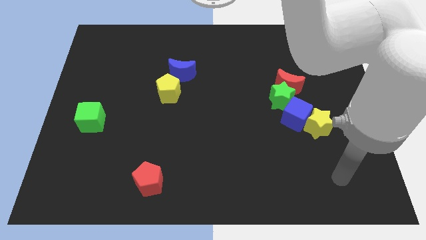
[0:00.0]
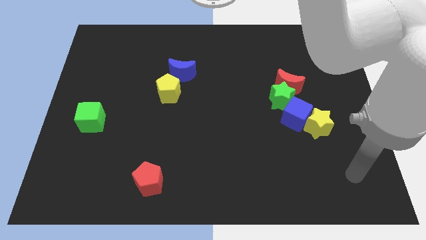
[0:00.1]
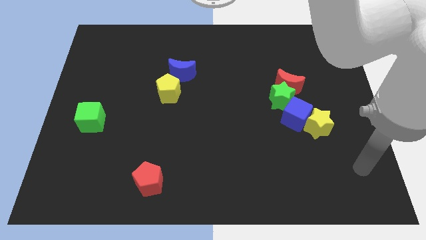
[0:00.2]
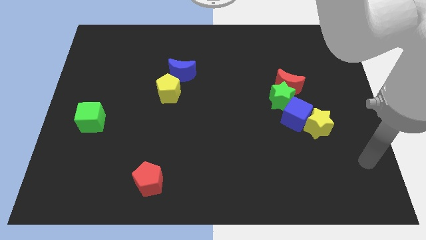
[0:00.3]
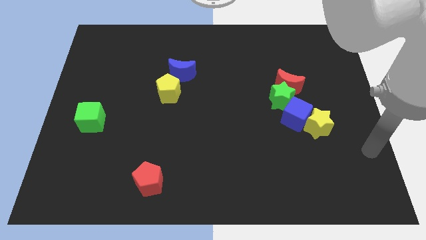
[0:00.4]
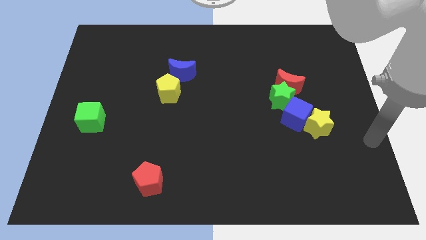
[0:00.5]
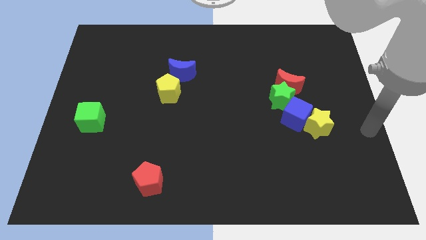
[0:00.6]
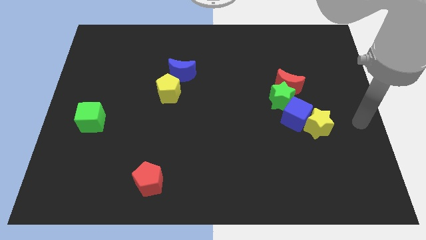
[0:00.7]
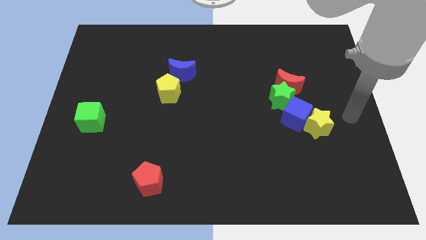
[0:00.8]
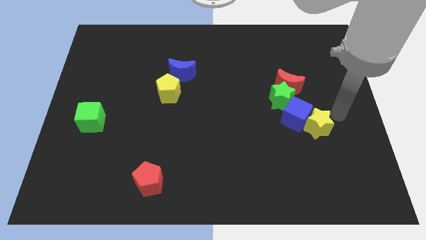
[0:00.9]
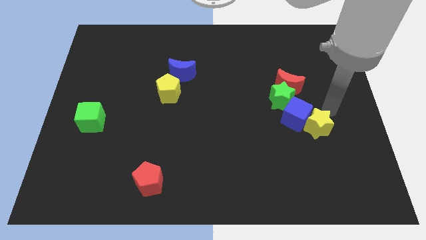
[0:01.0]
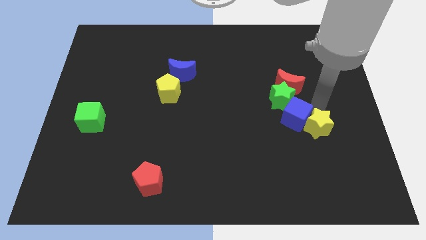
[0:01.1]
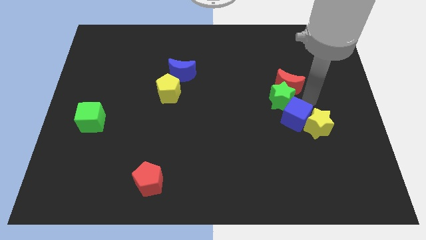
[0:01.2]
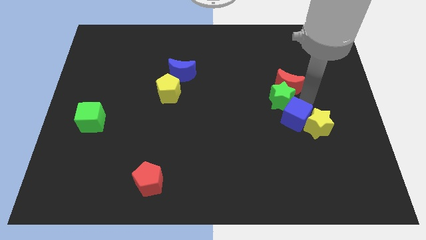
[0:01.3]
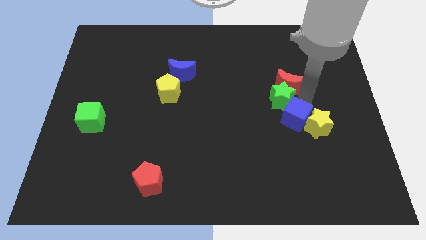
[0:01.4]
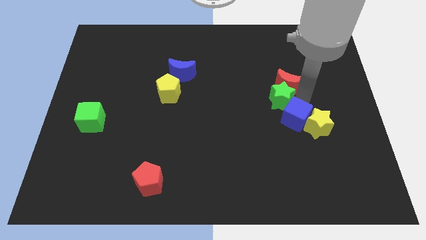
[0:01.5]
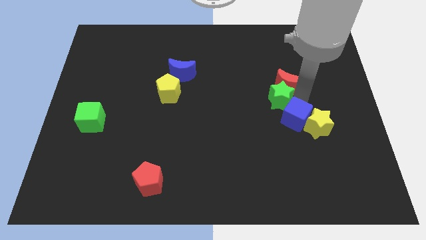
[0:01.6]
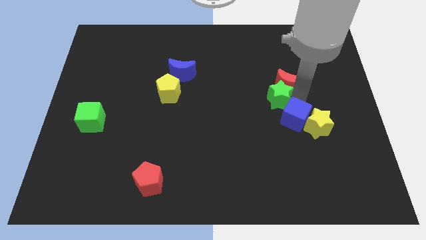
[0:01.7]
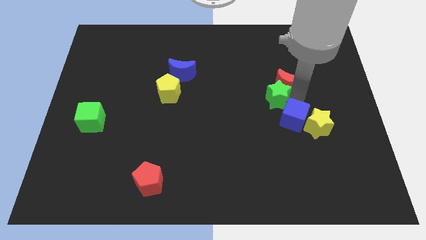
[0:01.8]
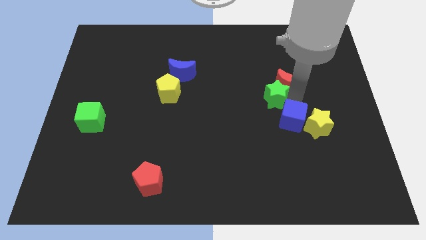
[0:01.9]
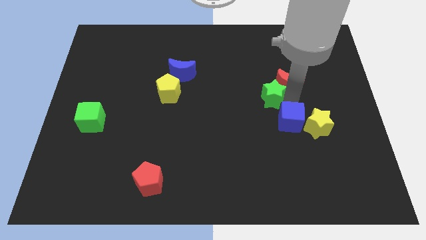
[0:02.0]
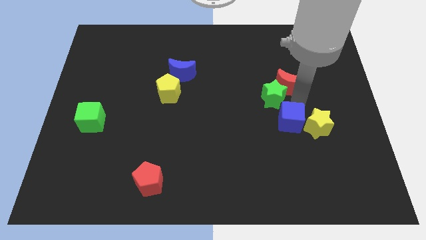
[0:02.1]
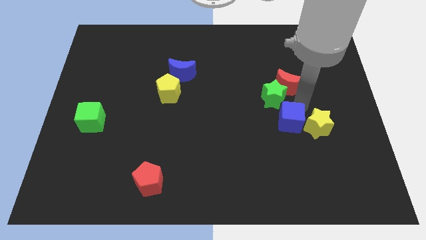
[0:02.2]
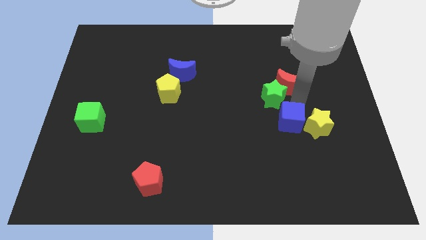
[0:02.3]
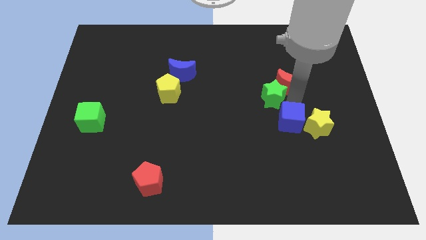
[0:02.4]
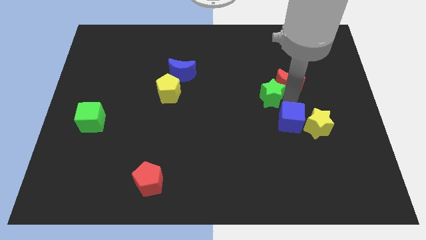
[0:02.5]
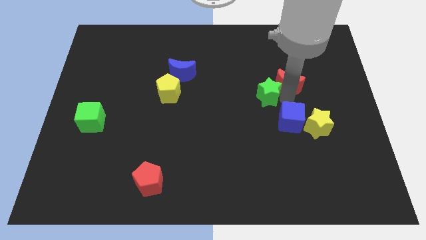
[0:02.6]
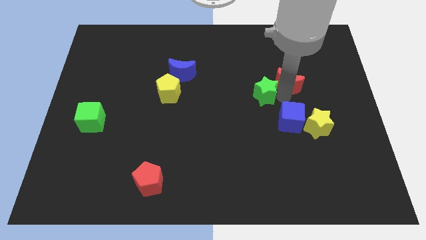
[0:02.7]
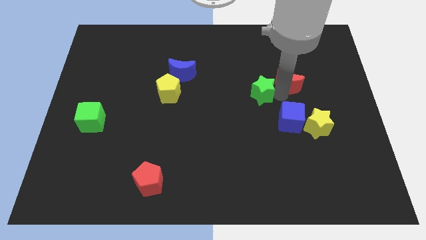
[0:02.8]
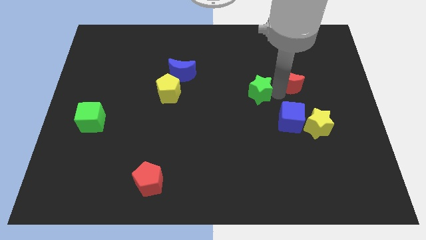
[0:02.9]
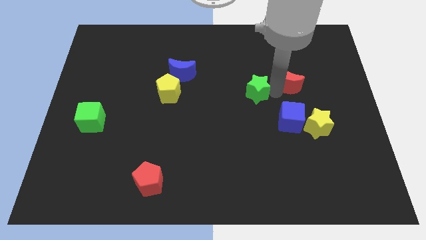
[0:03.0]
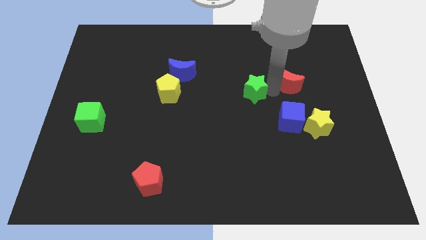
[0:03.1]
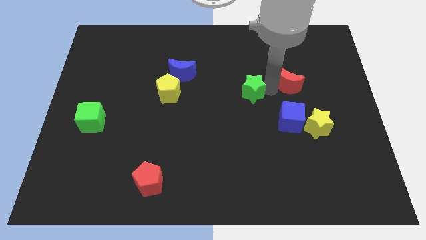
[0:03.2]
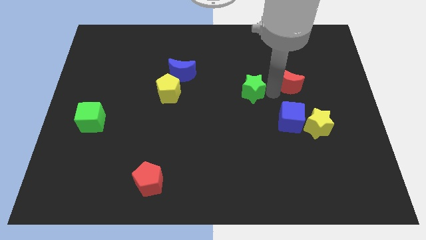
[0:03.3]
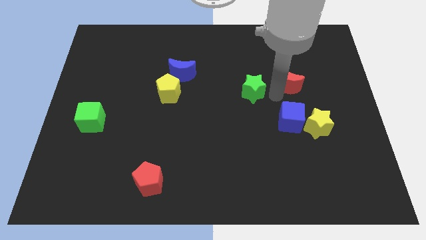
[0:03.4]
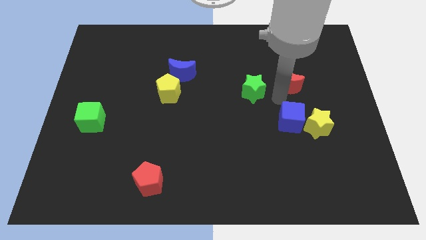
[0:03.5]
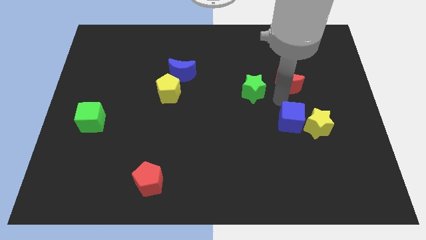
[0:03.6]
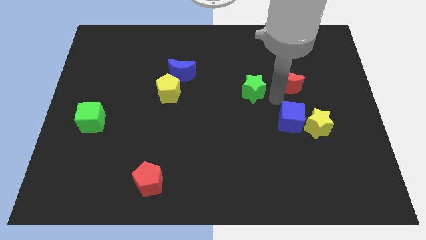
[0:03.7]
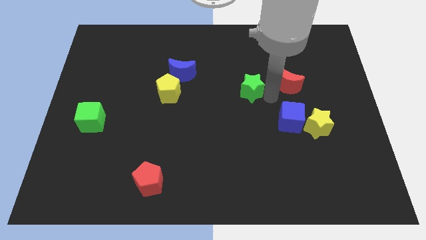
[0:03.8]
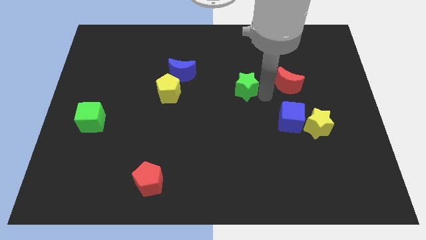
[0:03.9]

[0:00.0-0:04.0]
move the green star away from the red moon and blue cube

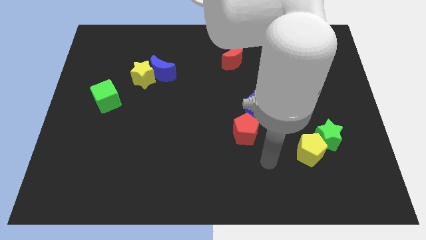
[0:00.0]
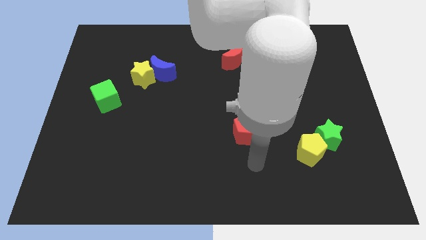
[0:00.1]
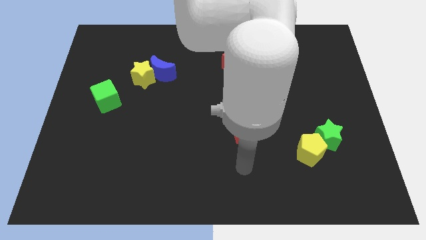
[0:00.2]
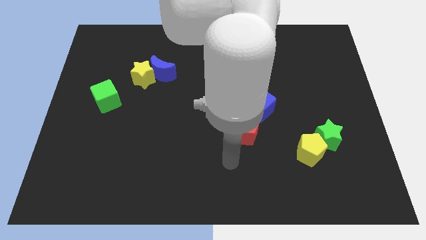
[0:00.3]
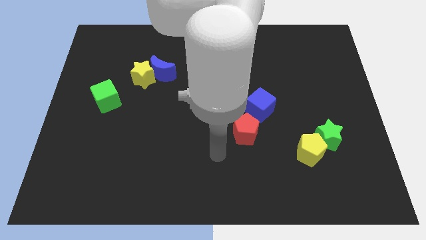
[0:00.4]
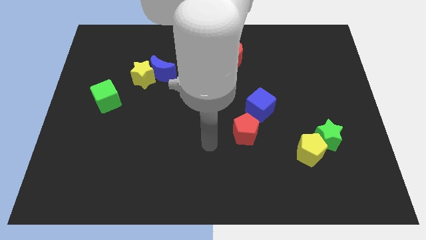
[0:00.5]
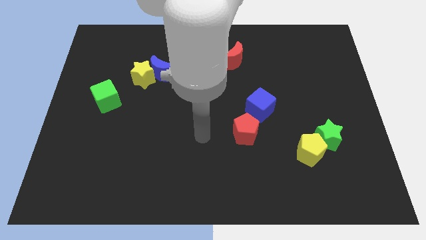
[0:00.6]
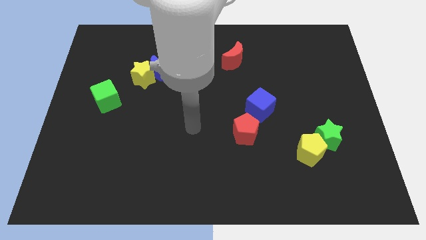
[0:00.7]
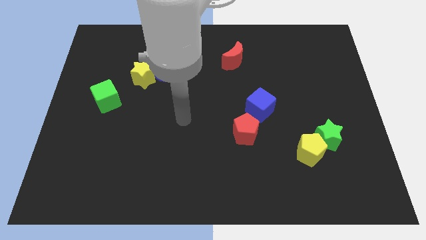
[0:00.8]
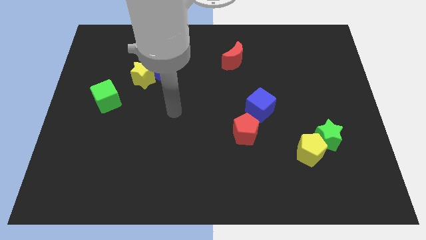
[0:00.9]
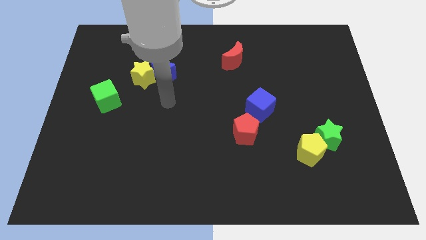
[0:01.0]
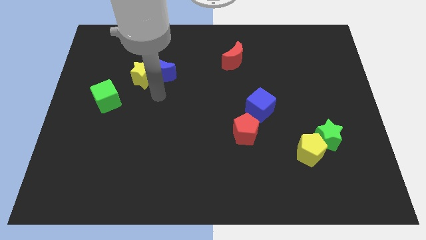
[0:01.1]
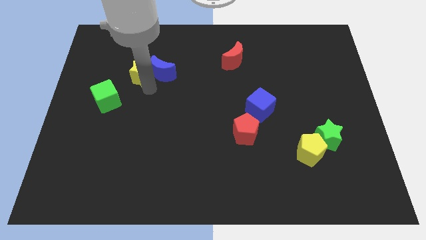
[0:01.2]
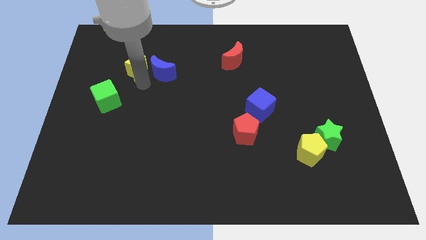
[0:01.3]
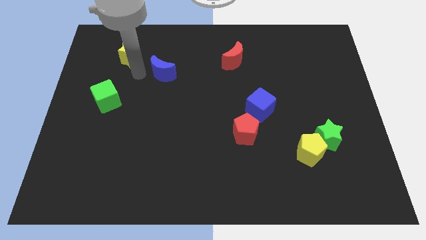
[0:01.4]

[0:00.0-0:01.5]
pull the blue moon apart from the yellow star

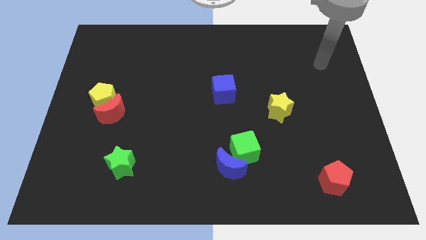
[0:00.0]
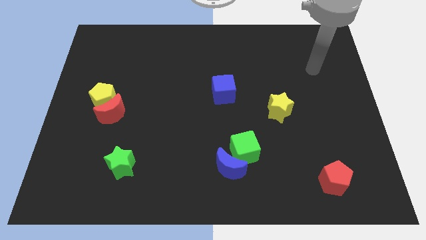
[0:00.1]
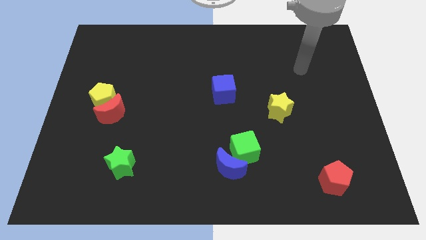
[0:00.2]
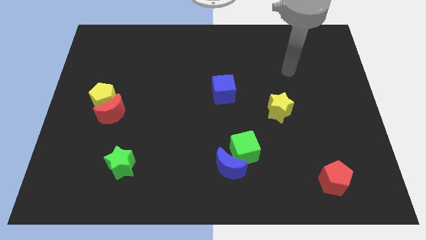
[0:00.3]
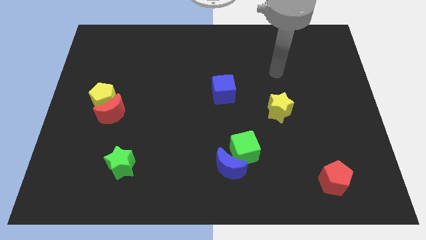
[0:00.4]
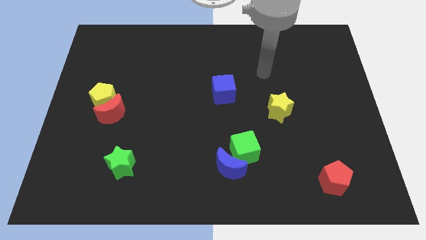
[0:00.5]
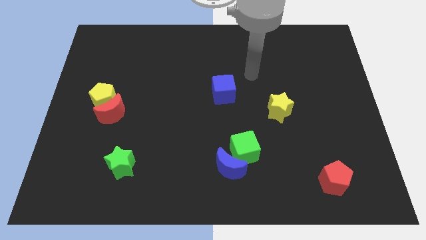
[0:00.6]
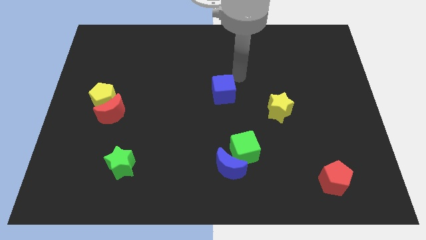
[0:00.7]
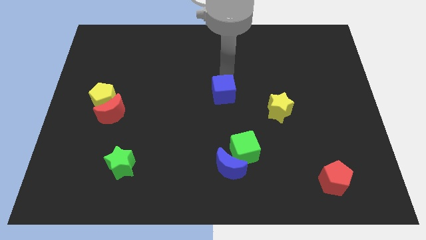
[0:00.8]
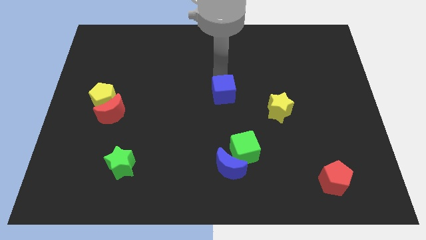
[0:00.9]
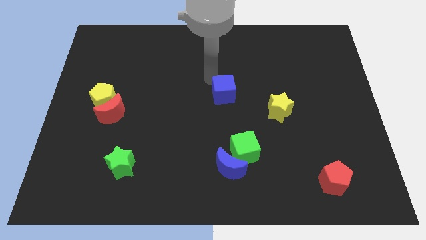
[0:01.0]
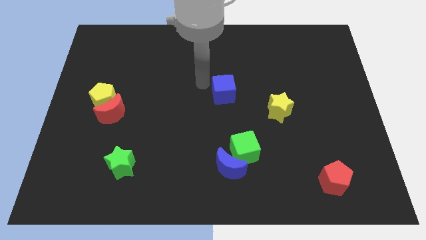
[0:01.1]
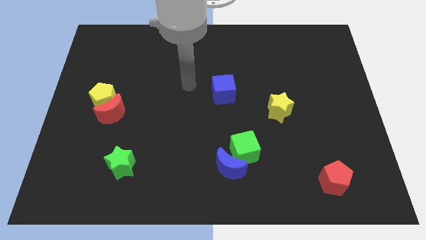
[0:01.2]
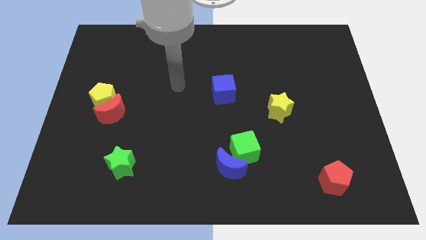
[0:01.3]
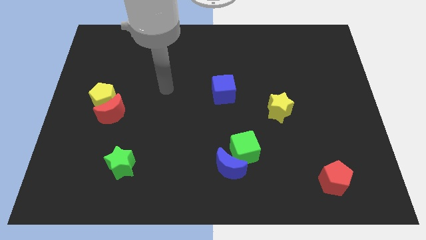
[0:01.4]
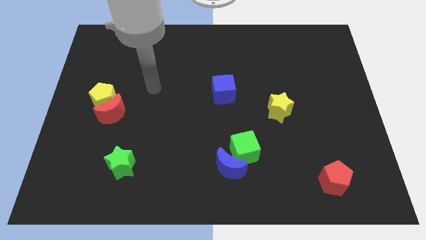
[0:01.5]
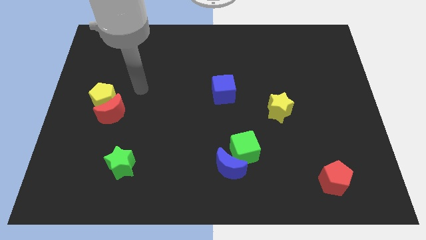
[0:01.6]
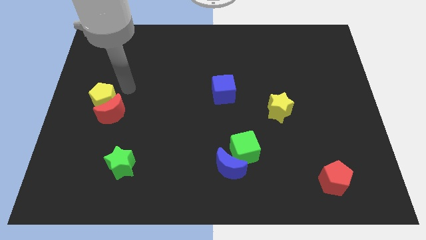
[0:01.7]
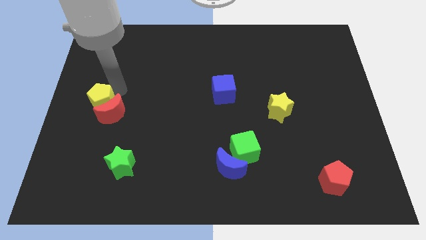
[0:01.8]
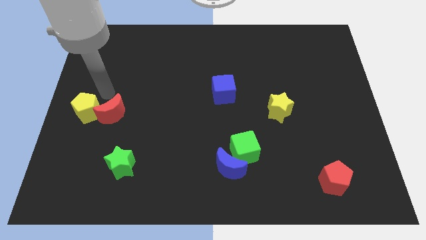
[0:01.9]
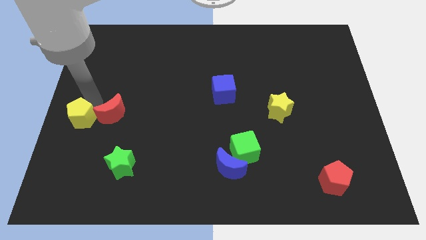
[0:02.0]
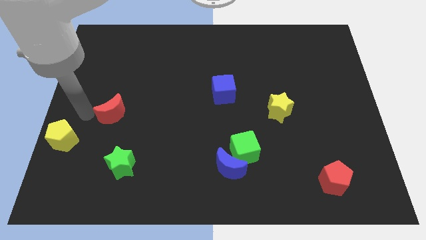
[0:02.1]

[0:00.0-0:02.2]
pull the red moon apart from the yellow pentagon

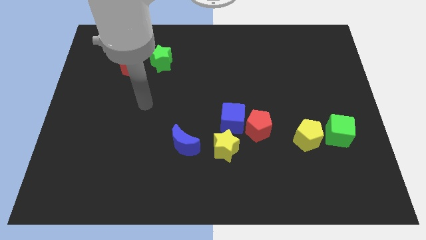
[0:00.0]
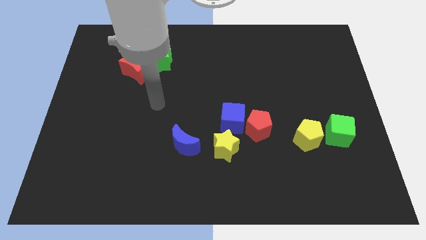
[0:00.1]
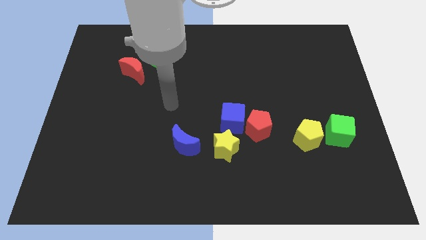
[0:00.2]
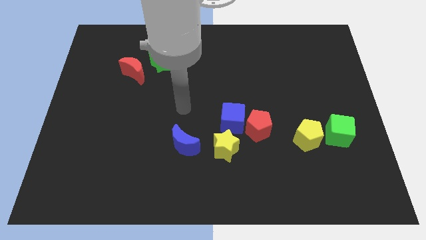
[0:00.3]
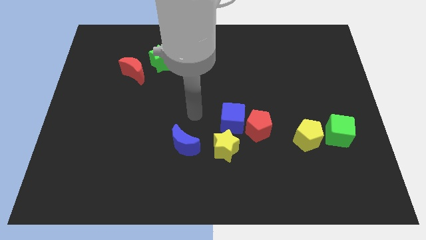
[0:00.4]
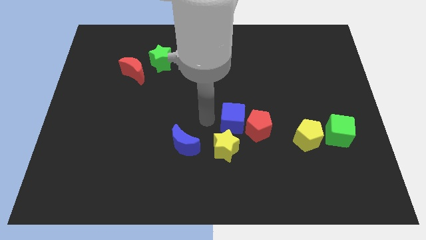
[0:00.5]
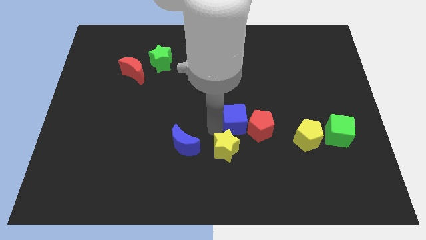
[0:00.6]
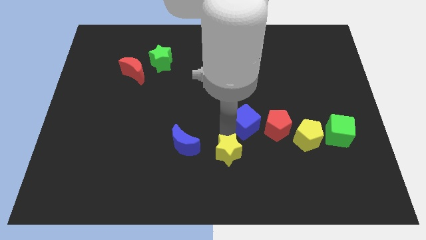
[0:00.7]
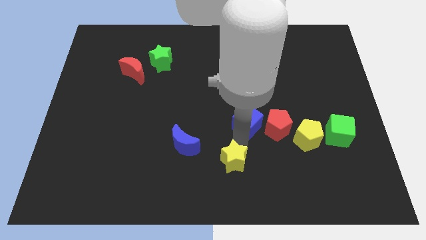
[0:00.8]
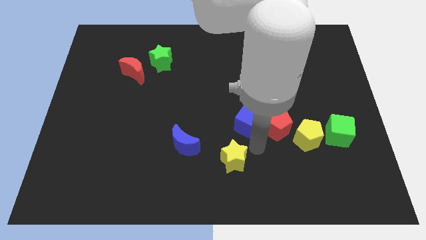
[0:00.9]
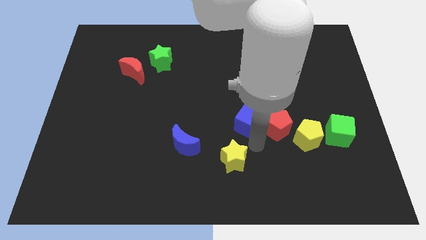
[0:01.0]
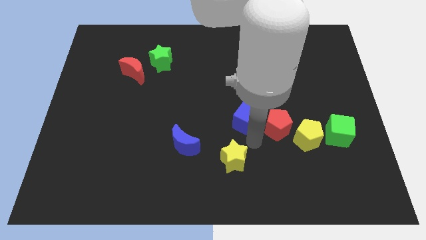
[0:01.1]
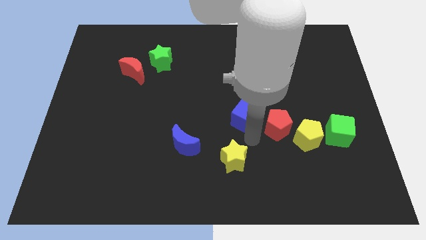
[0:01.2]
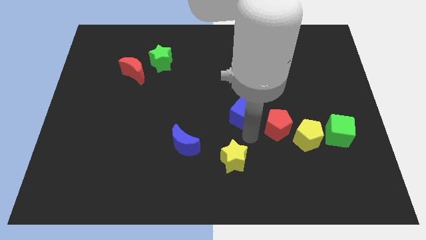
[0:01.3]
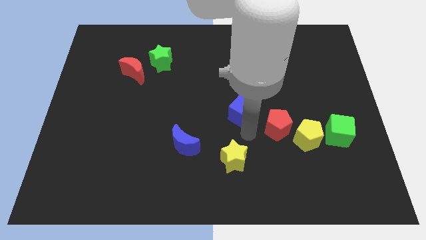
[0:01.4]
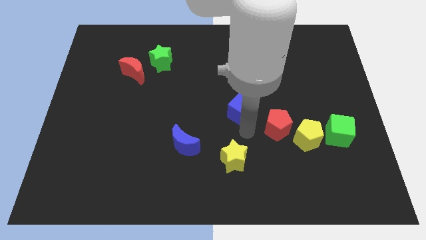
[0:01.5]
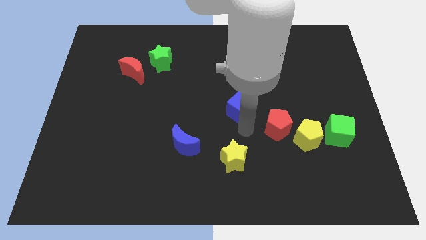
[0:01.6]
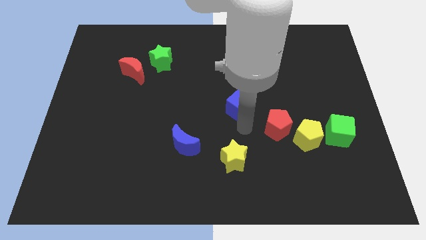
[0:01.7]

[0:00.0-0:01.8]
separate the blue cube from the red pentagon and yellow star
